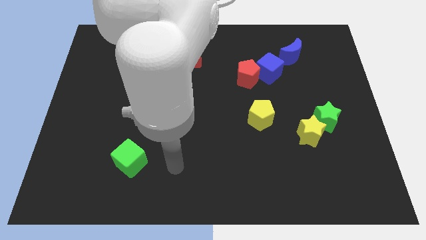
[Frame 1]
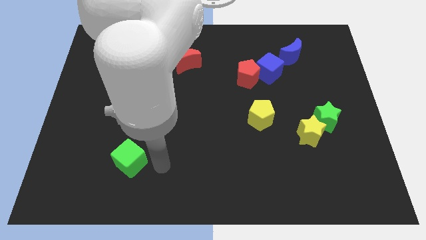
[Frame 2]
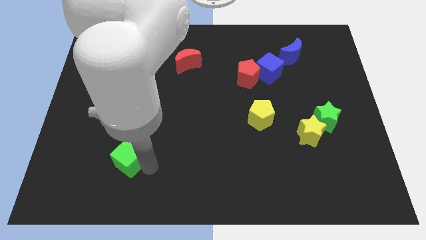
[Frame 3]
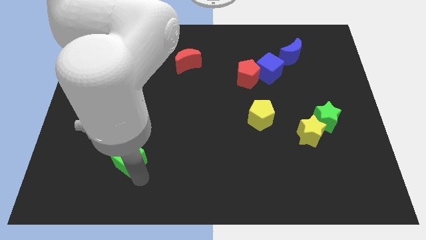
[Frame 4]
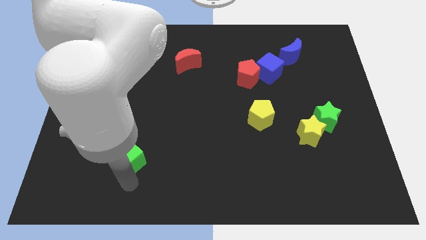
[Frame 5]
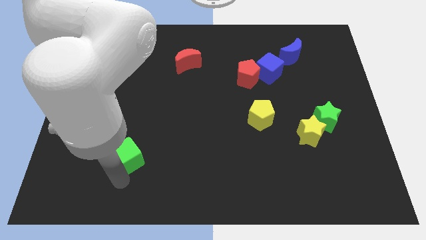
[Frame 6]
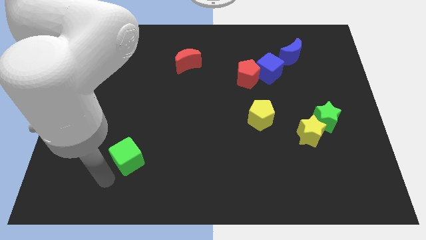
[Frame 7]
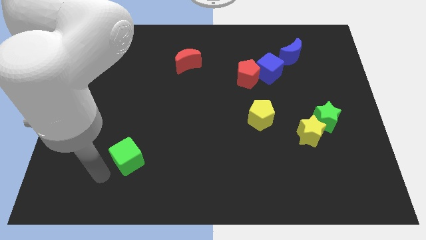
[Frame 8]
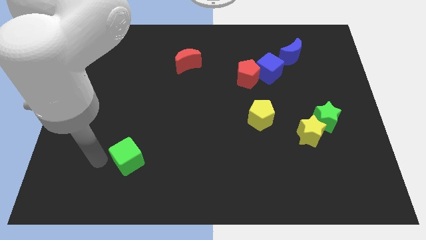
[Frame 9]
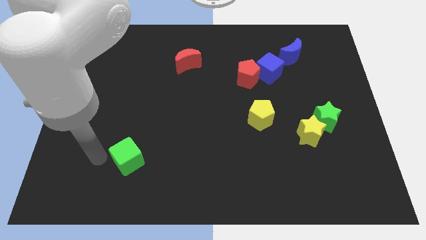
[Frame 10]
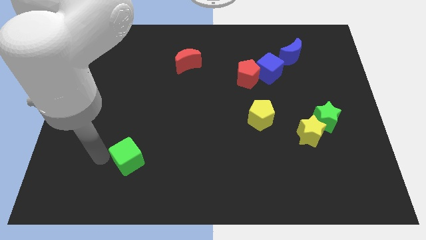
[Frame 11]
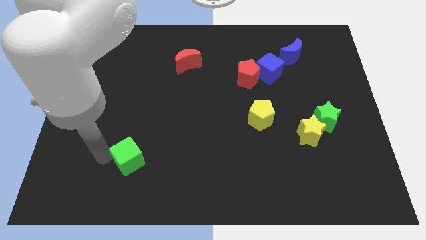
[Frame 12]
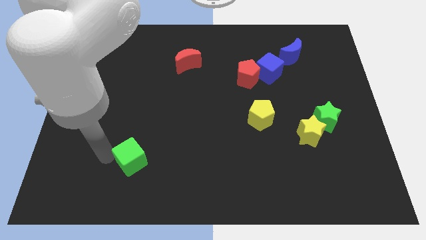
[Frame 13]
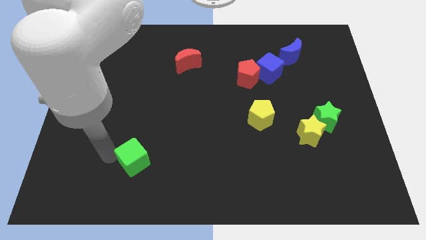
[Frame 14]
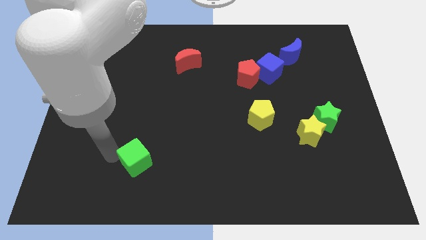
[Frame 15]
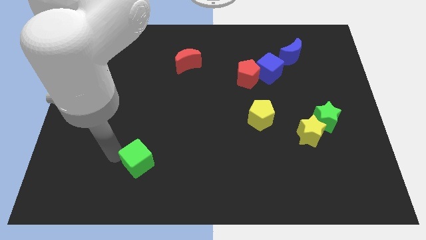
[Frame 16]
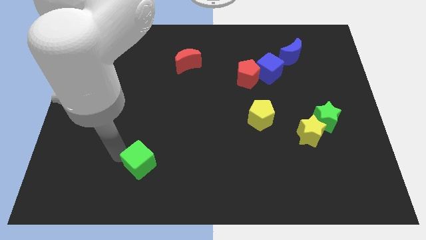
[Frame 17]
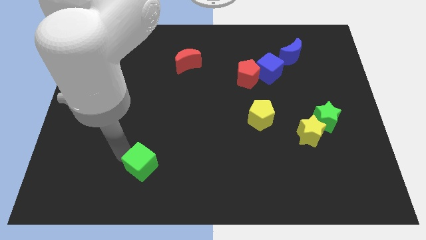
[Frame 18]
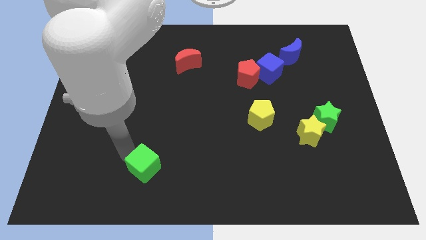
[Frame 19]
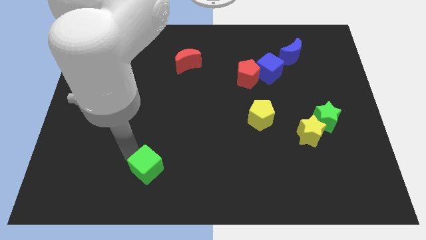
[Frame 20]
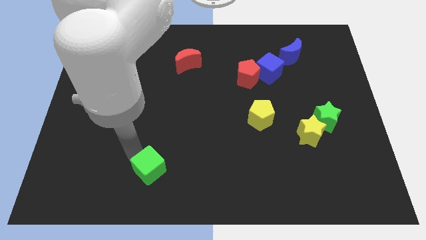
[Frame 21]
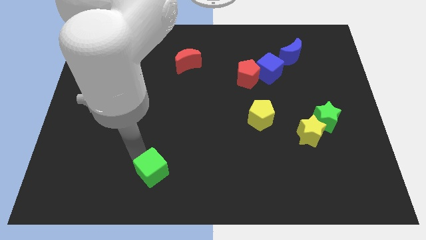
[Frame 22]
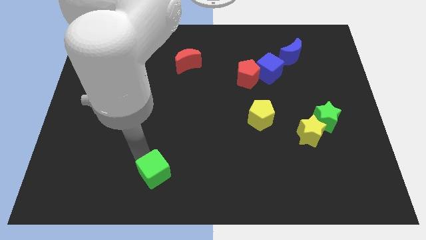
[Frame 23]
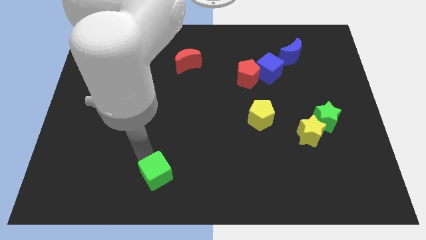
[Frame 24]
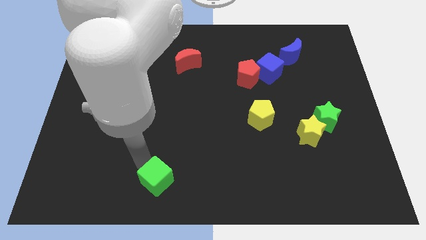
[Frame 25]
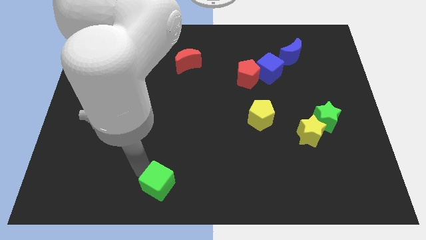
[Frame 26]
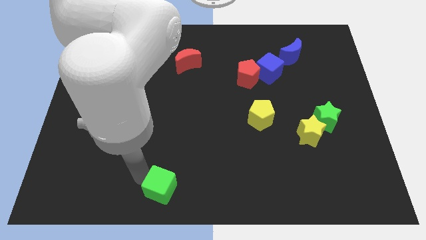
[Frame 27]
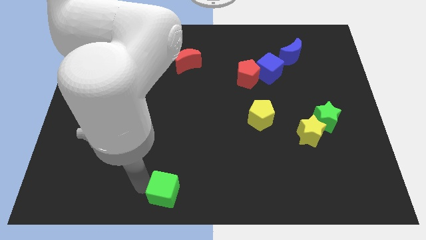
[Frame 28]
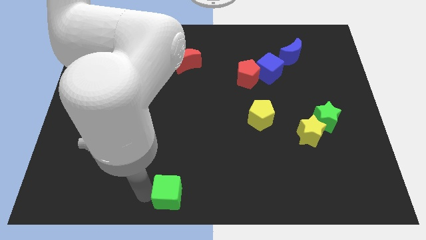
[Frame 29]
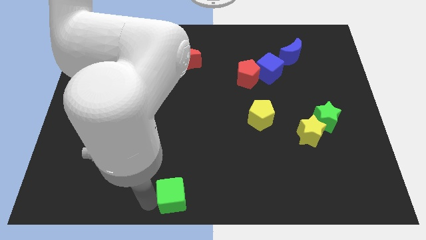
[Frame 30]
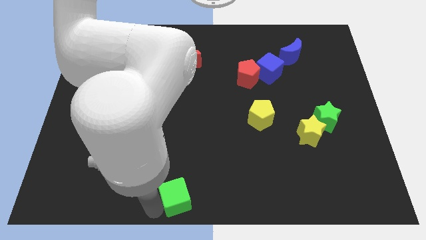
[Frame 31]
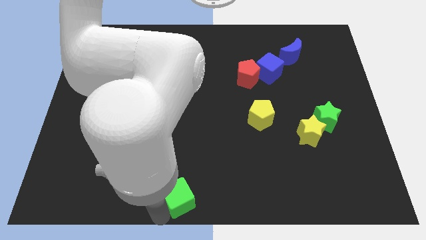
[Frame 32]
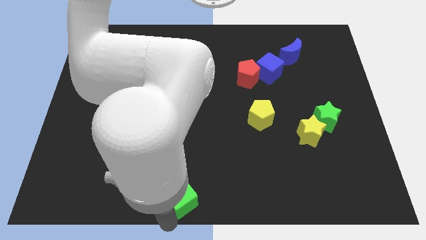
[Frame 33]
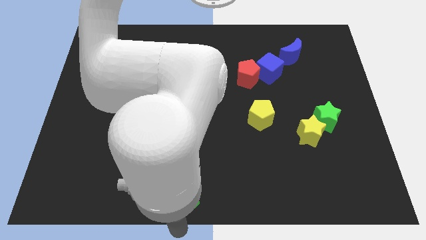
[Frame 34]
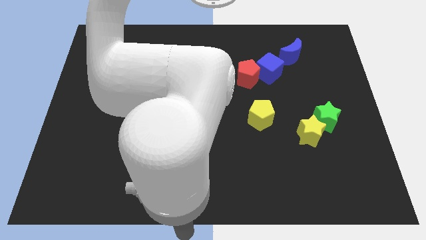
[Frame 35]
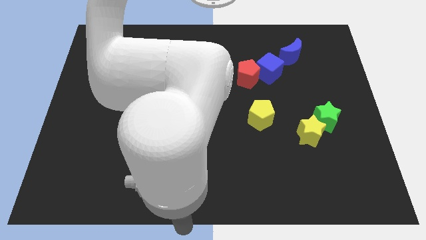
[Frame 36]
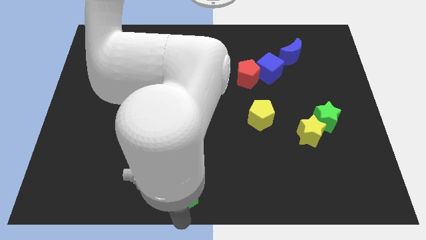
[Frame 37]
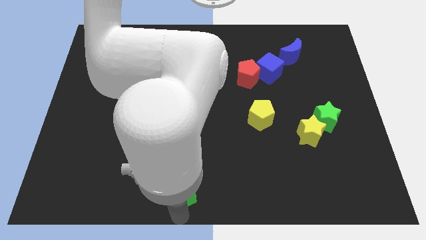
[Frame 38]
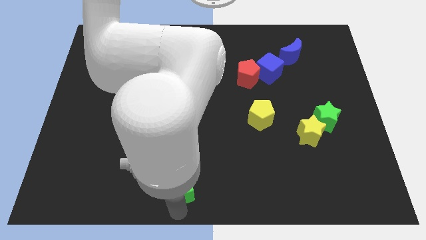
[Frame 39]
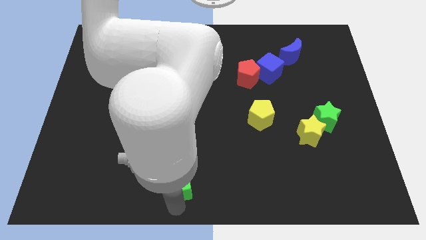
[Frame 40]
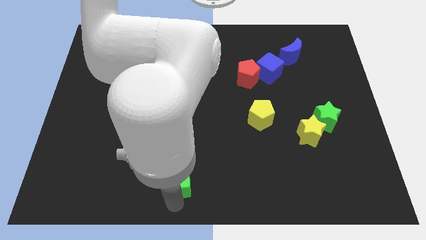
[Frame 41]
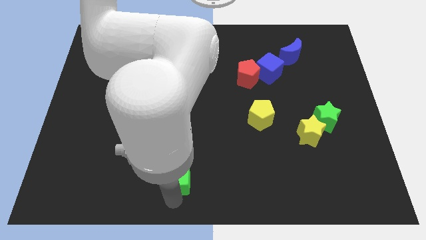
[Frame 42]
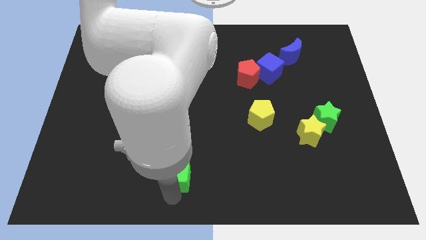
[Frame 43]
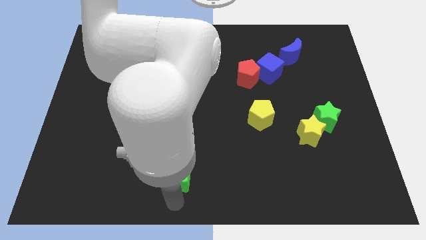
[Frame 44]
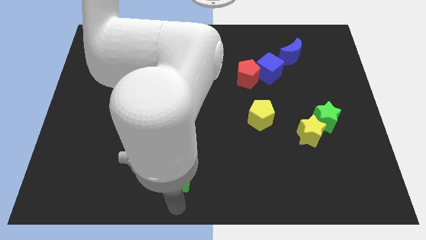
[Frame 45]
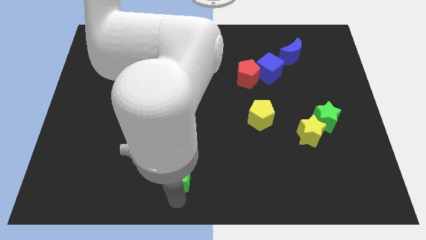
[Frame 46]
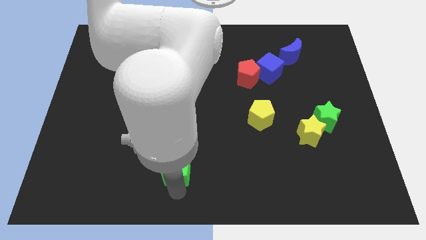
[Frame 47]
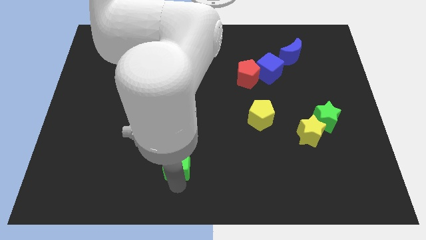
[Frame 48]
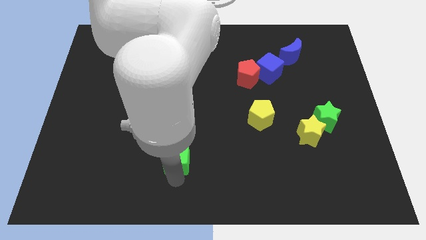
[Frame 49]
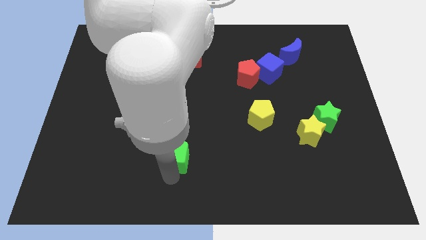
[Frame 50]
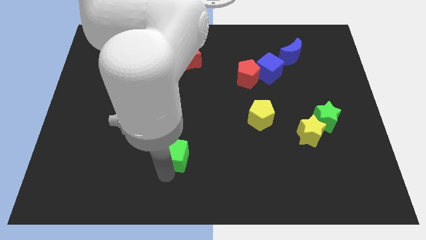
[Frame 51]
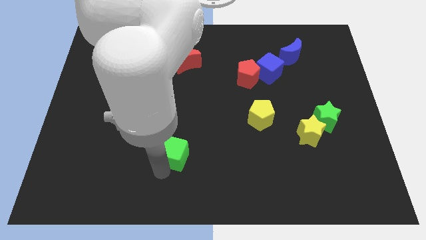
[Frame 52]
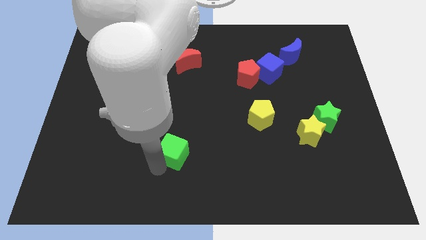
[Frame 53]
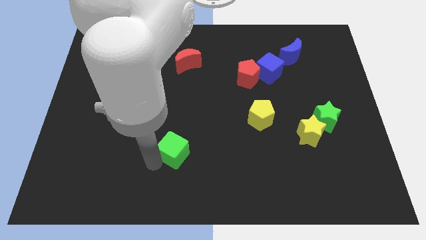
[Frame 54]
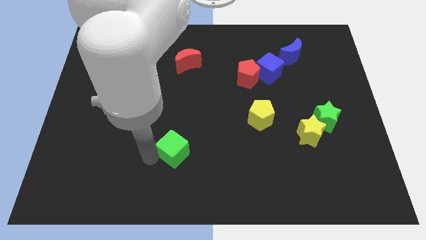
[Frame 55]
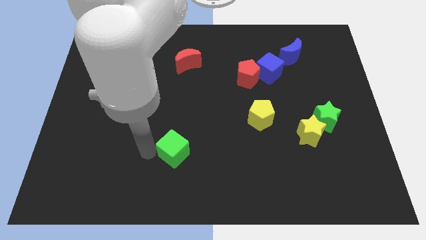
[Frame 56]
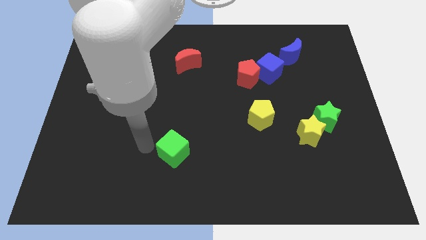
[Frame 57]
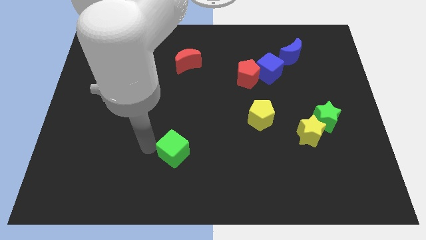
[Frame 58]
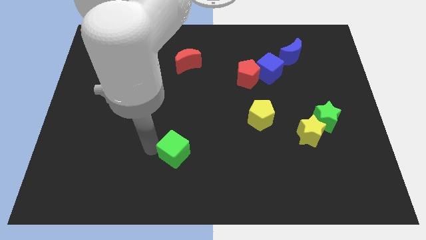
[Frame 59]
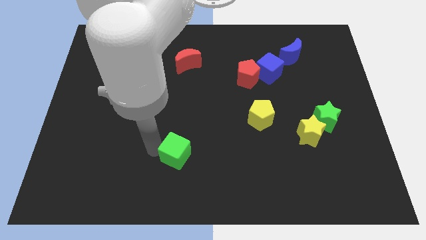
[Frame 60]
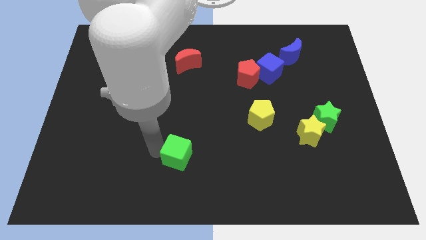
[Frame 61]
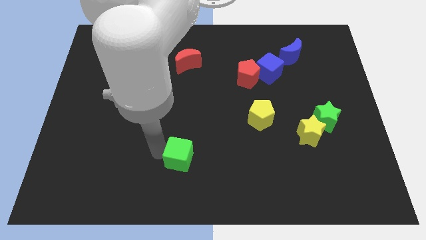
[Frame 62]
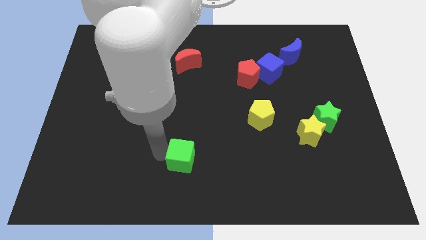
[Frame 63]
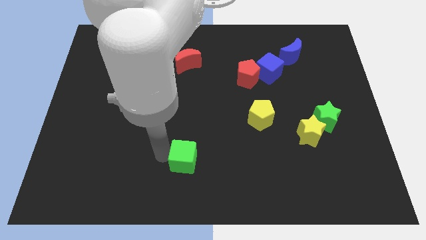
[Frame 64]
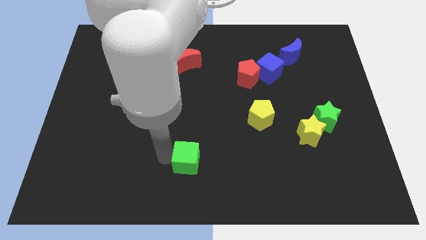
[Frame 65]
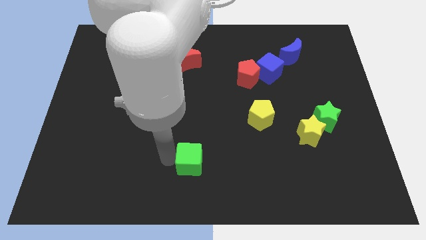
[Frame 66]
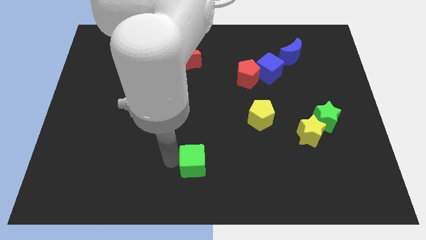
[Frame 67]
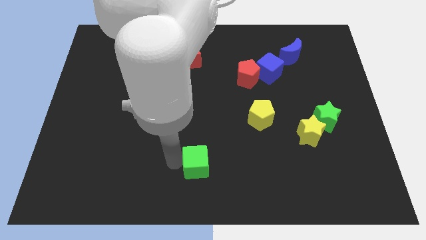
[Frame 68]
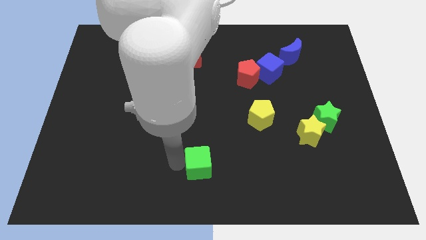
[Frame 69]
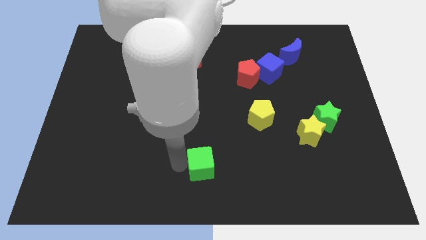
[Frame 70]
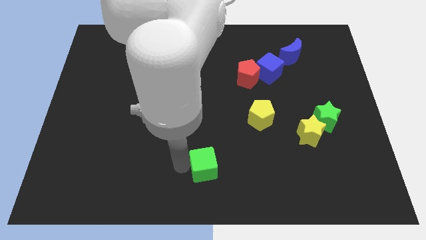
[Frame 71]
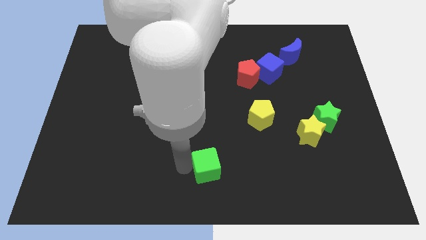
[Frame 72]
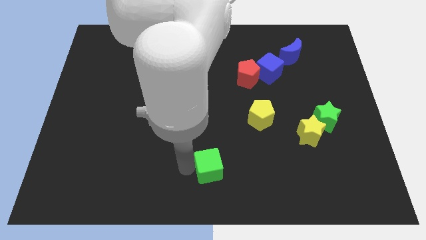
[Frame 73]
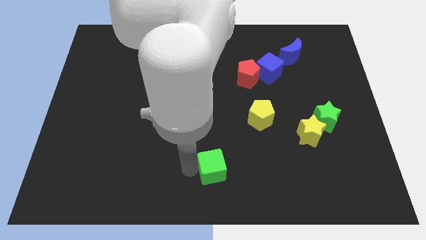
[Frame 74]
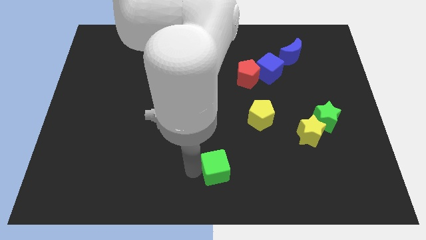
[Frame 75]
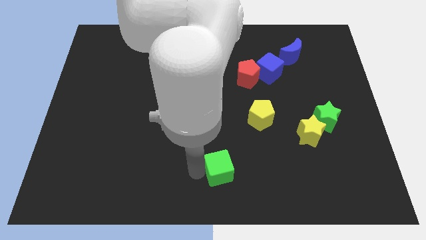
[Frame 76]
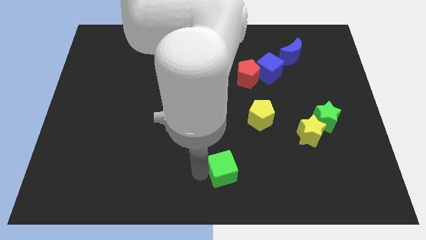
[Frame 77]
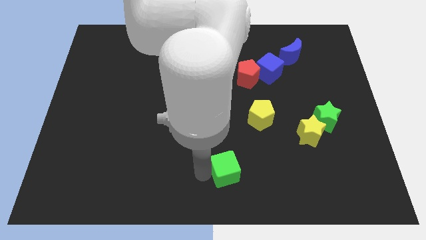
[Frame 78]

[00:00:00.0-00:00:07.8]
push the green cube to the right
